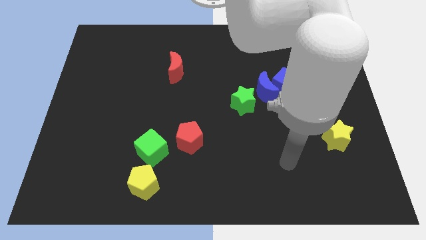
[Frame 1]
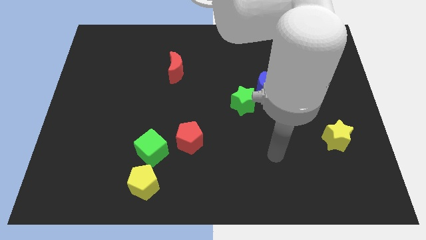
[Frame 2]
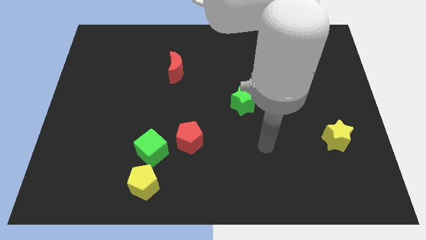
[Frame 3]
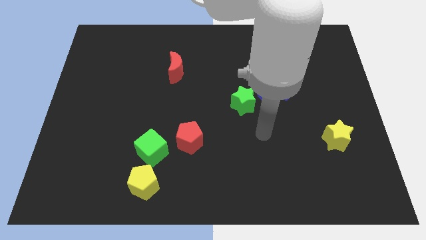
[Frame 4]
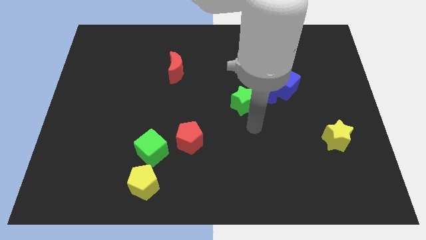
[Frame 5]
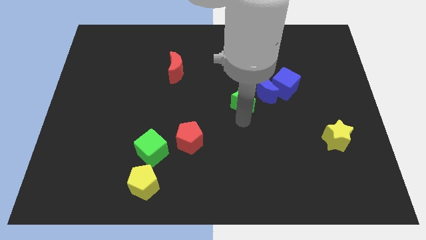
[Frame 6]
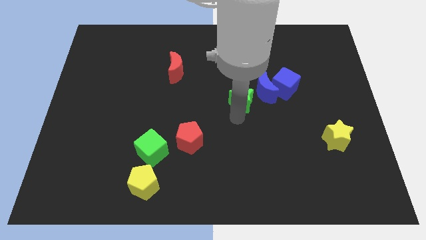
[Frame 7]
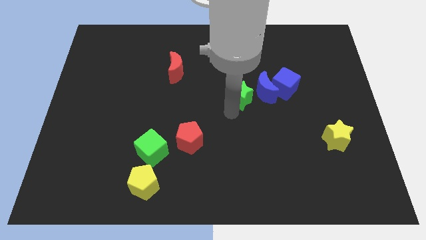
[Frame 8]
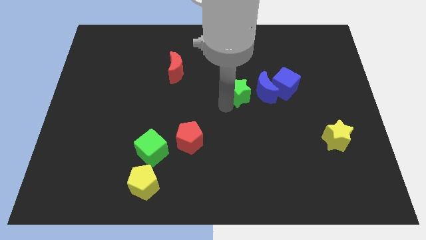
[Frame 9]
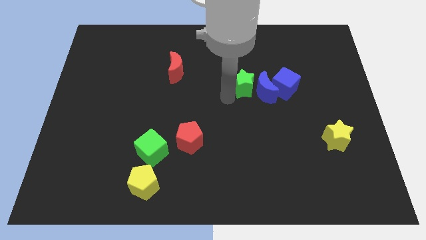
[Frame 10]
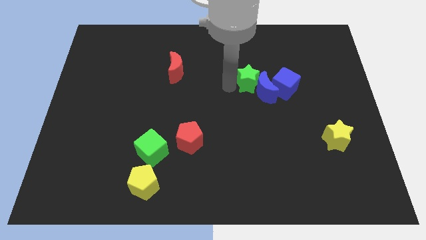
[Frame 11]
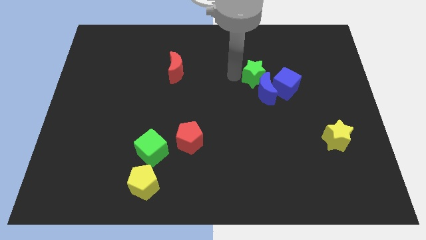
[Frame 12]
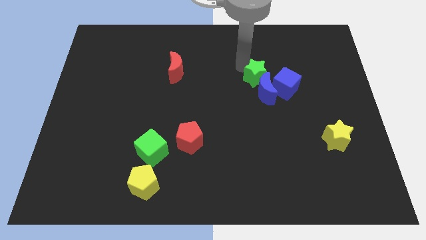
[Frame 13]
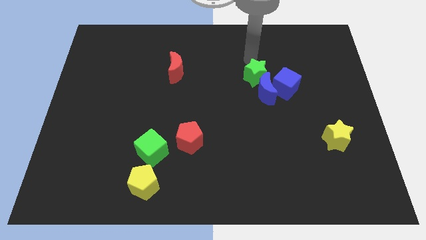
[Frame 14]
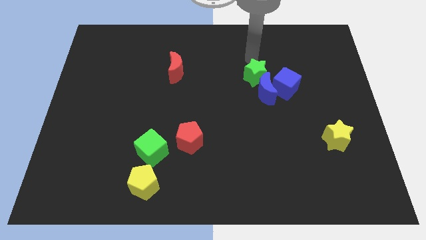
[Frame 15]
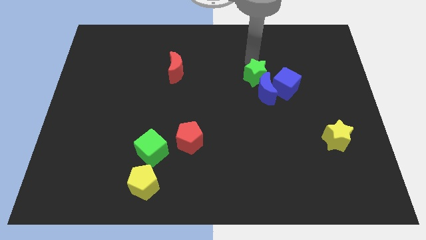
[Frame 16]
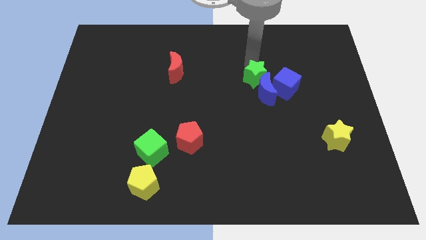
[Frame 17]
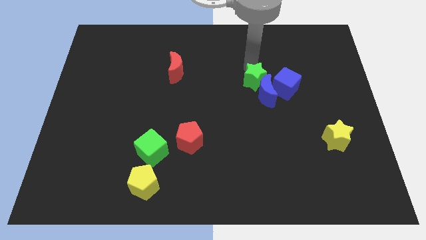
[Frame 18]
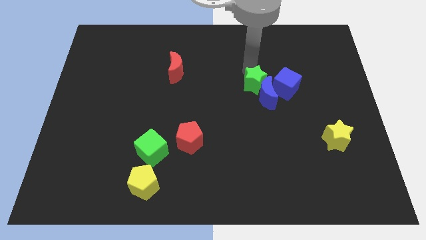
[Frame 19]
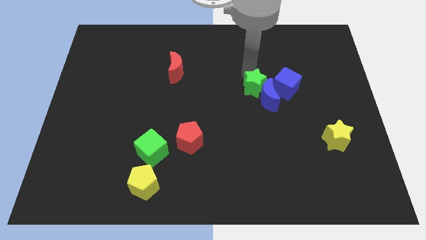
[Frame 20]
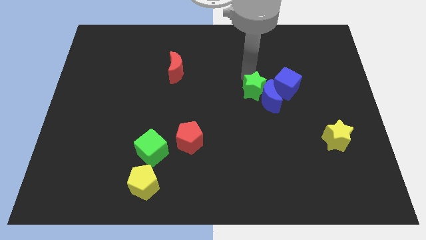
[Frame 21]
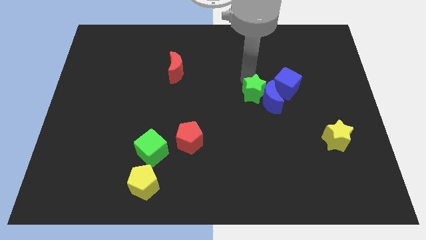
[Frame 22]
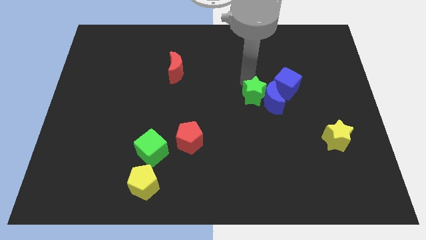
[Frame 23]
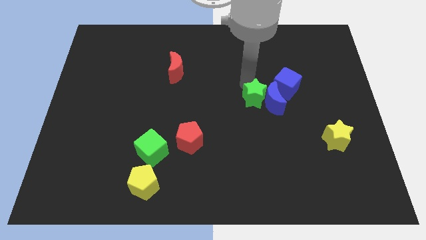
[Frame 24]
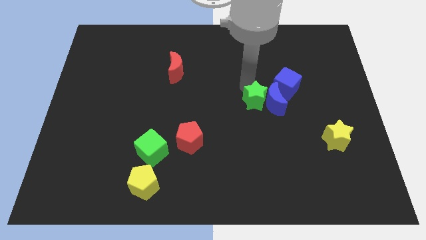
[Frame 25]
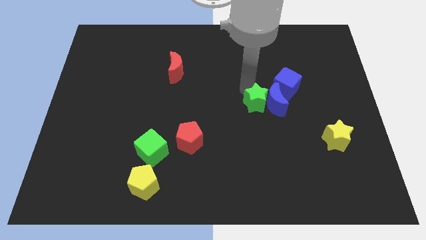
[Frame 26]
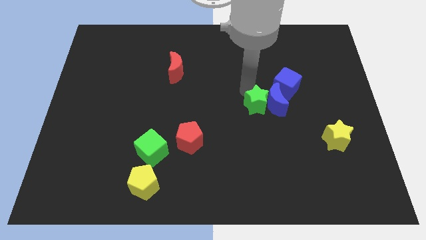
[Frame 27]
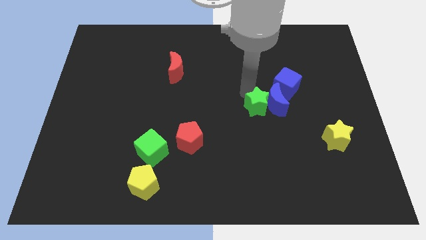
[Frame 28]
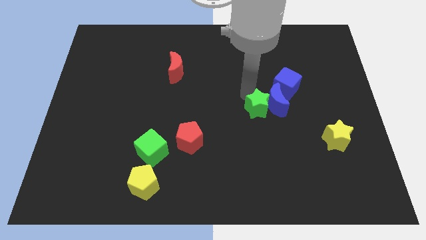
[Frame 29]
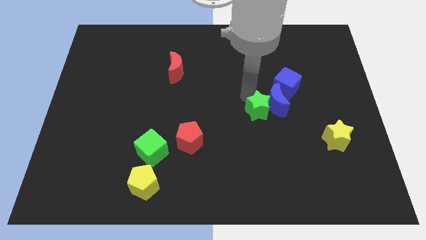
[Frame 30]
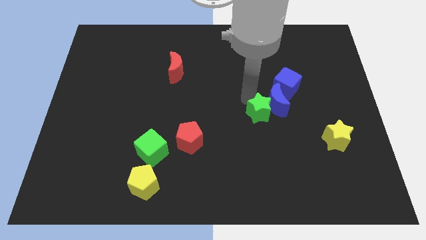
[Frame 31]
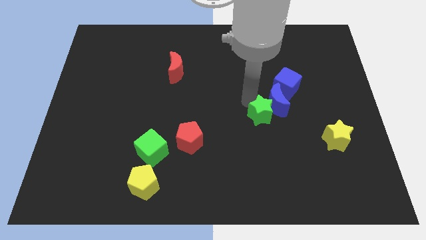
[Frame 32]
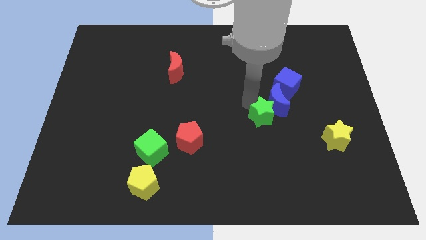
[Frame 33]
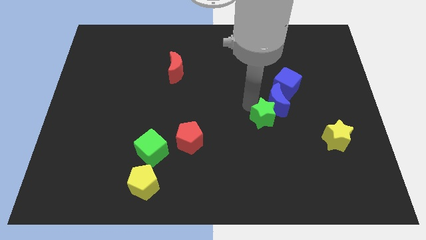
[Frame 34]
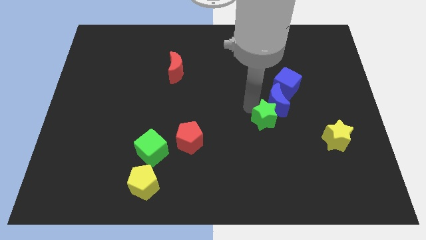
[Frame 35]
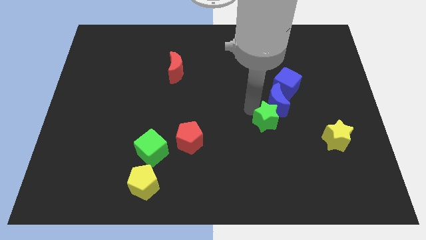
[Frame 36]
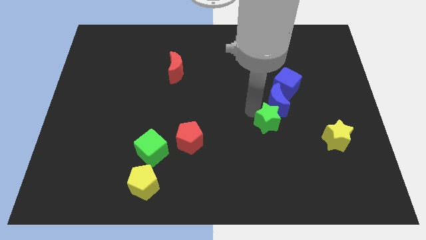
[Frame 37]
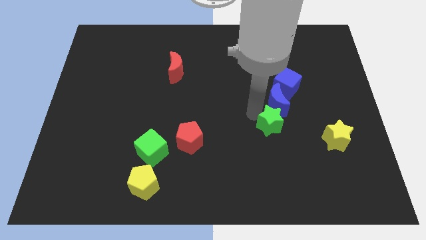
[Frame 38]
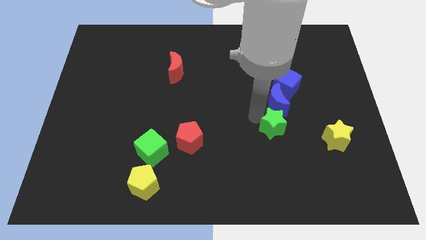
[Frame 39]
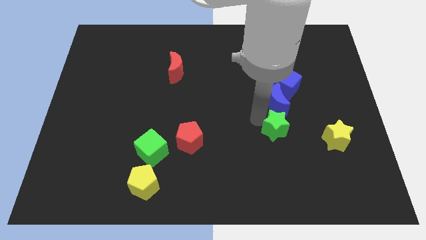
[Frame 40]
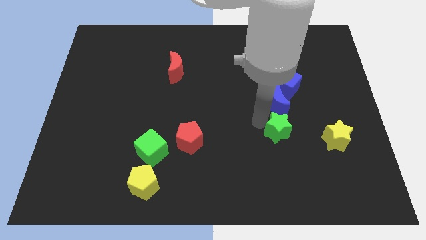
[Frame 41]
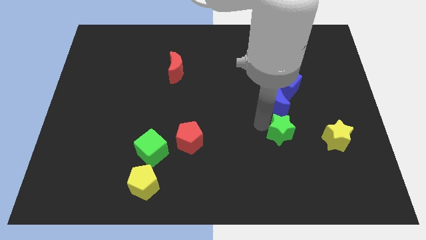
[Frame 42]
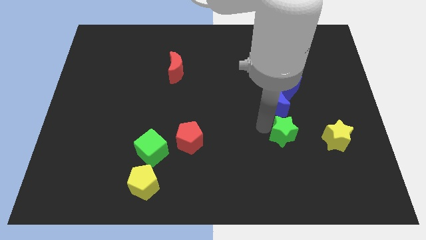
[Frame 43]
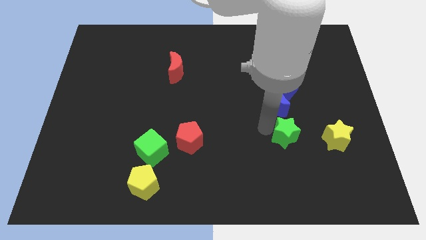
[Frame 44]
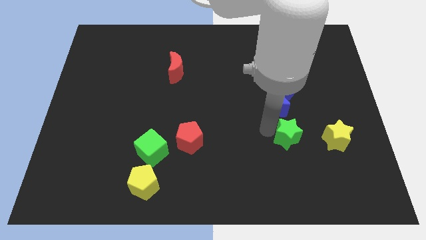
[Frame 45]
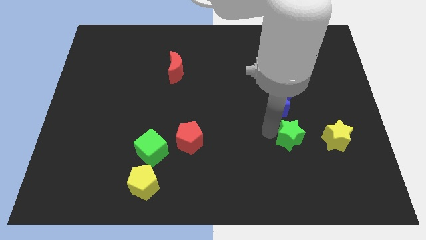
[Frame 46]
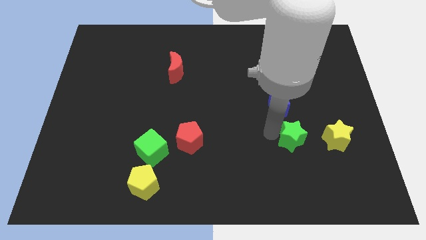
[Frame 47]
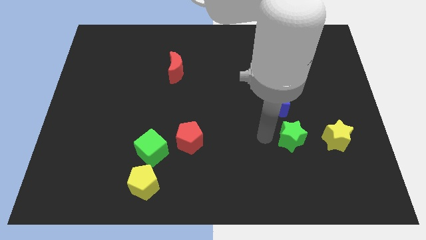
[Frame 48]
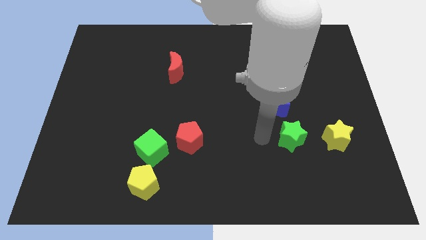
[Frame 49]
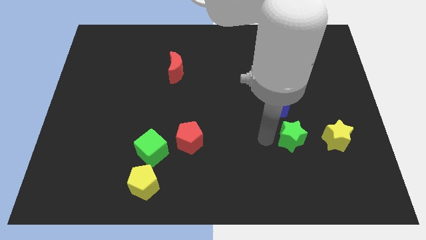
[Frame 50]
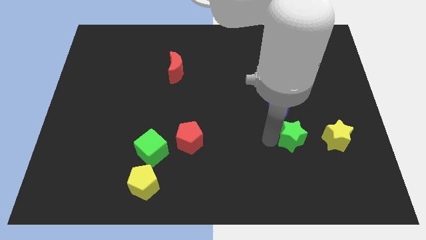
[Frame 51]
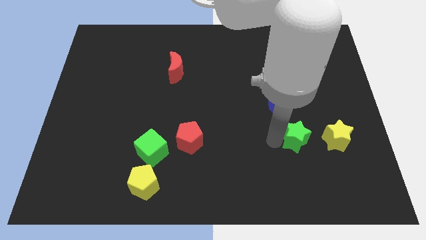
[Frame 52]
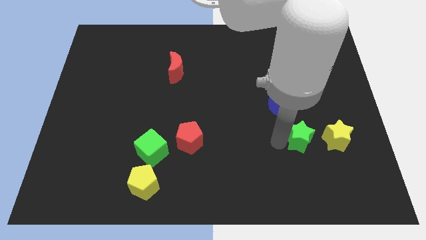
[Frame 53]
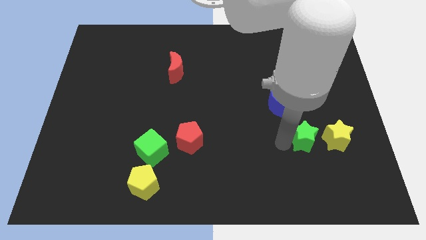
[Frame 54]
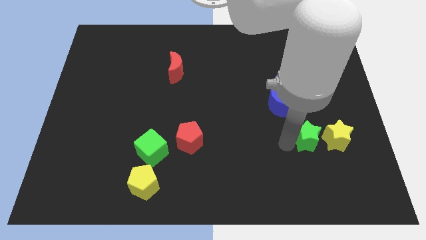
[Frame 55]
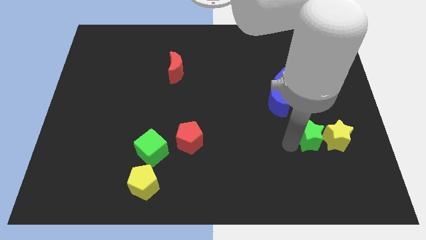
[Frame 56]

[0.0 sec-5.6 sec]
push the green star towards the yellow star

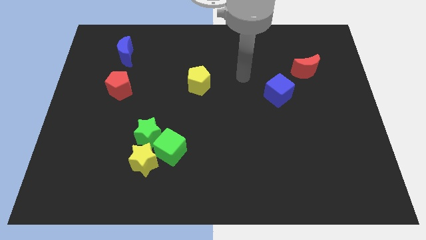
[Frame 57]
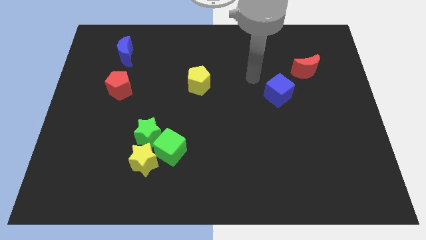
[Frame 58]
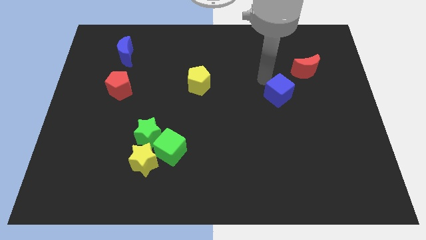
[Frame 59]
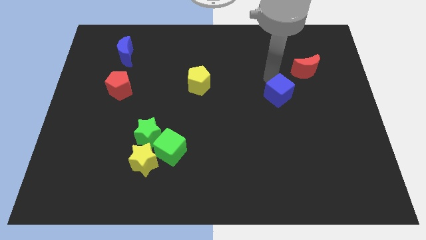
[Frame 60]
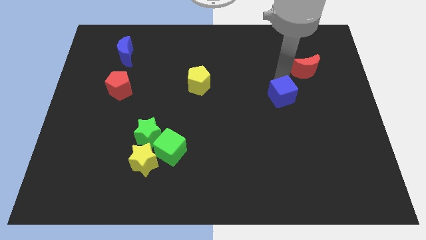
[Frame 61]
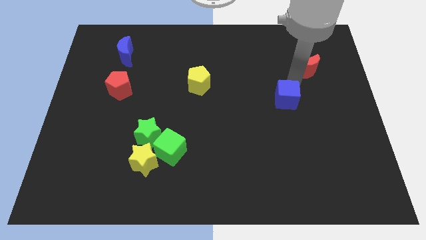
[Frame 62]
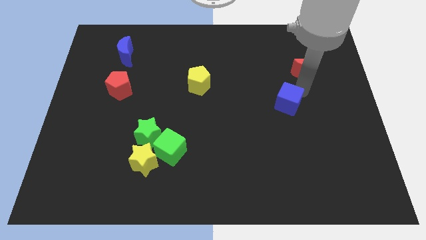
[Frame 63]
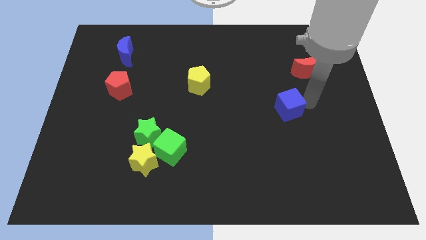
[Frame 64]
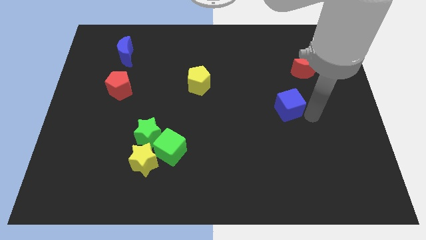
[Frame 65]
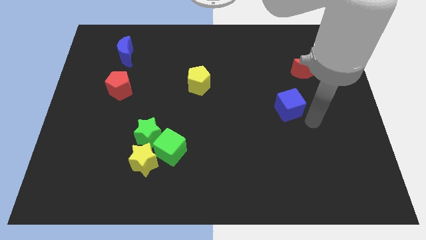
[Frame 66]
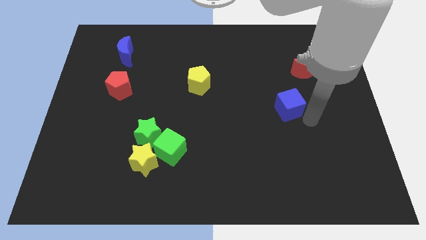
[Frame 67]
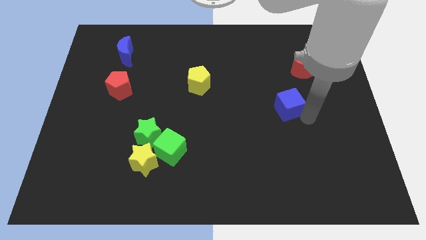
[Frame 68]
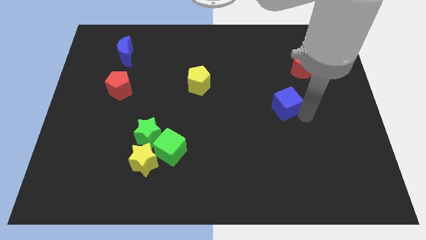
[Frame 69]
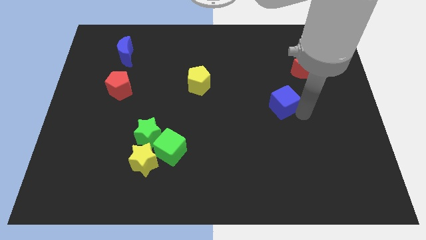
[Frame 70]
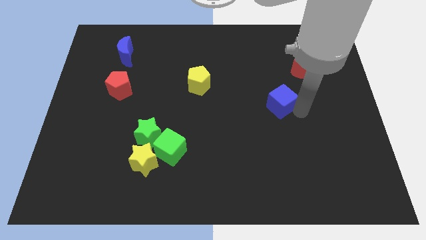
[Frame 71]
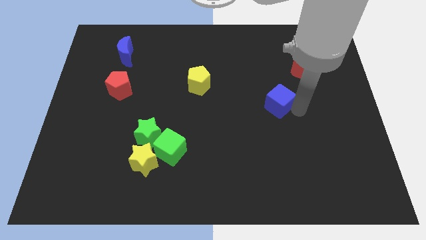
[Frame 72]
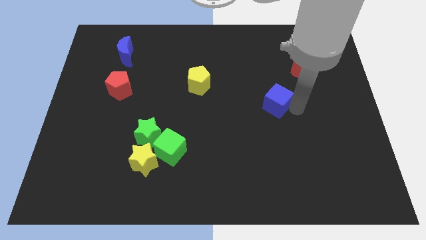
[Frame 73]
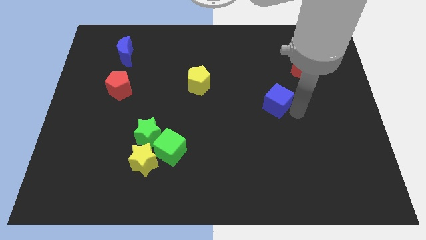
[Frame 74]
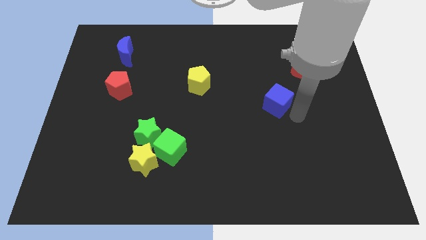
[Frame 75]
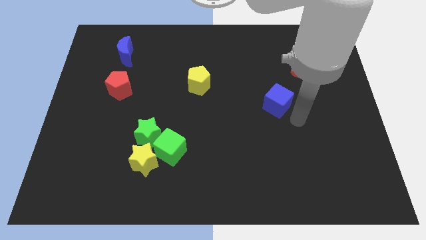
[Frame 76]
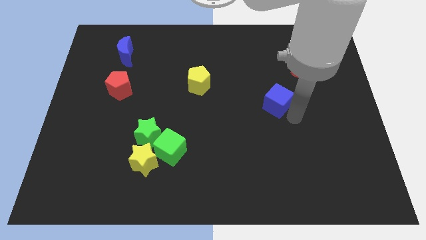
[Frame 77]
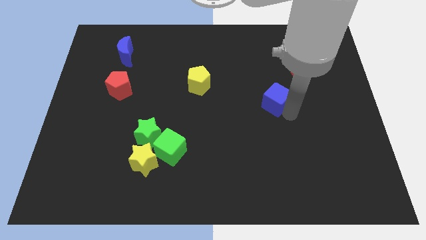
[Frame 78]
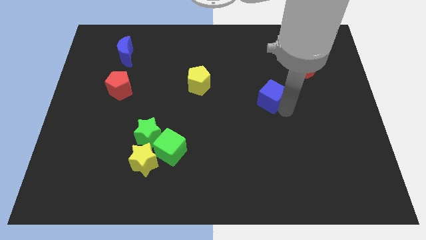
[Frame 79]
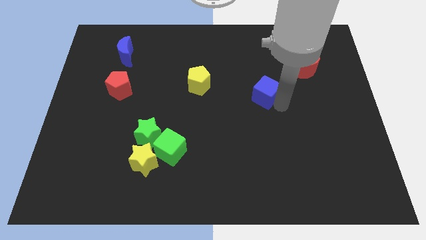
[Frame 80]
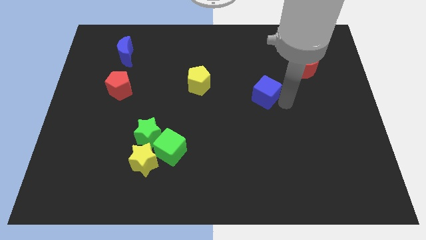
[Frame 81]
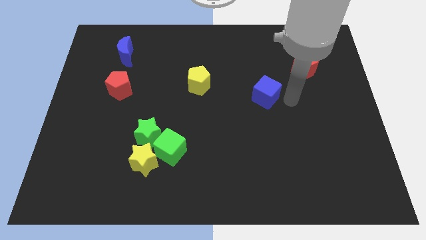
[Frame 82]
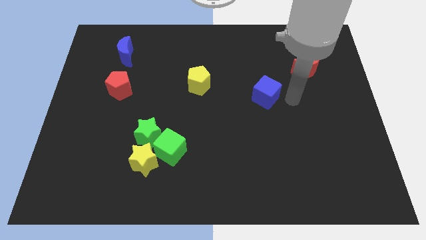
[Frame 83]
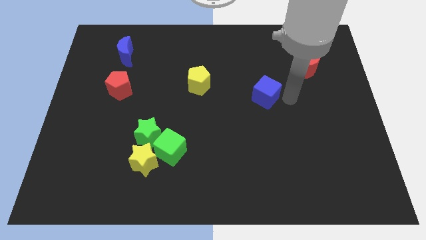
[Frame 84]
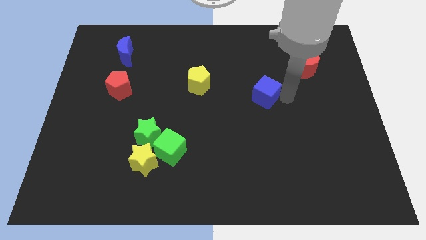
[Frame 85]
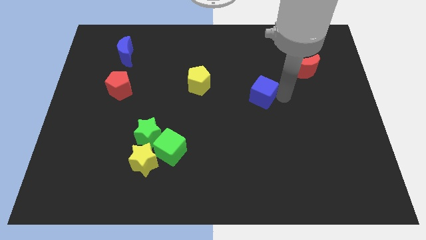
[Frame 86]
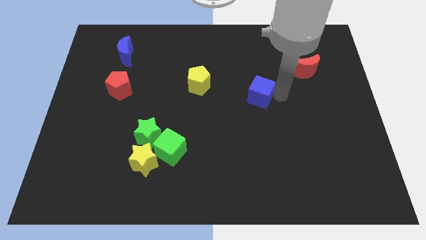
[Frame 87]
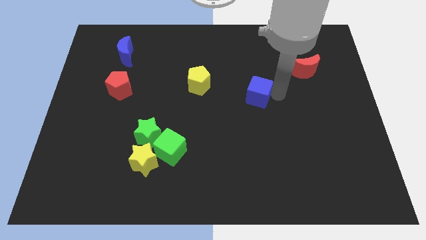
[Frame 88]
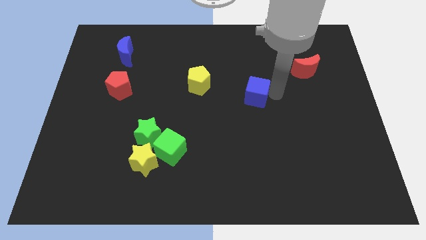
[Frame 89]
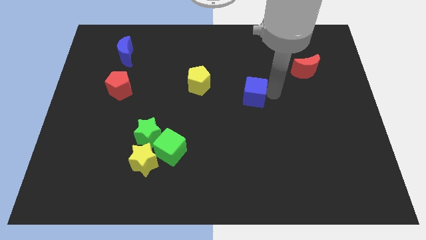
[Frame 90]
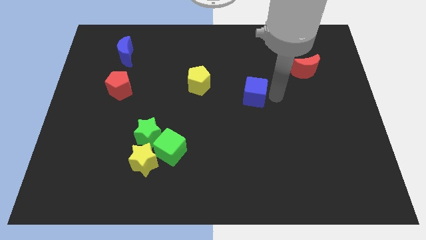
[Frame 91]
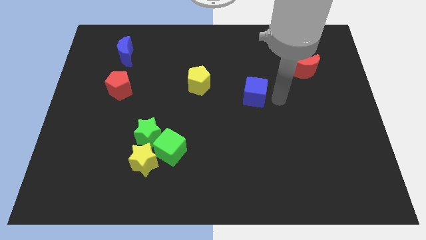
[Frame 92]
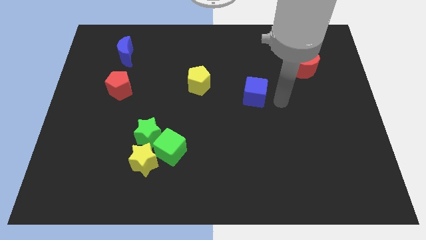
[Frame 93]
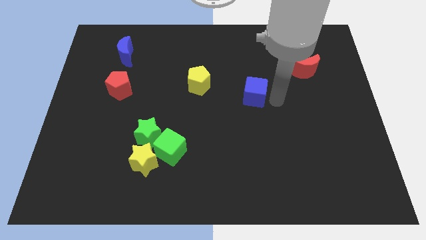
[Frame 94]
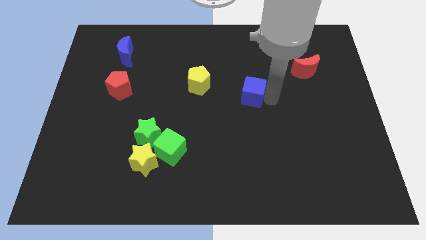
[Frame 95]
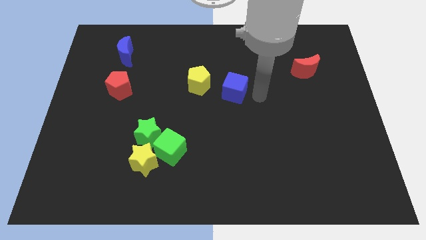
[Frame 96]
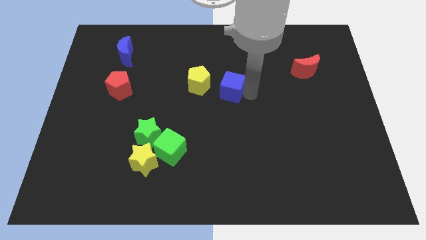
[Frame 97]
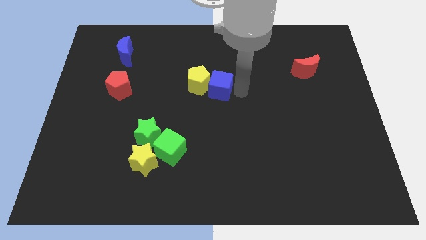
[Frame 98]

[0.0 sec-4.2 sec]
move the blue cube to the yellow pentagon
